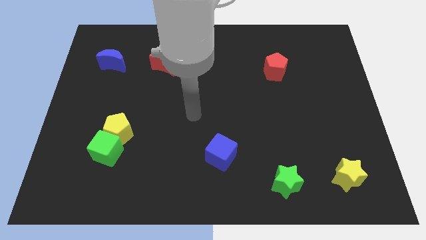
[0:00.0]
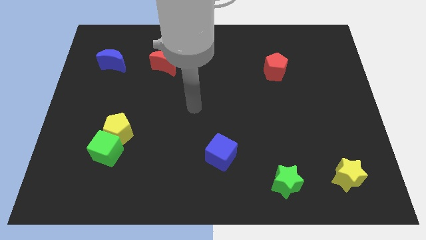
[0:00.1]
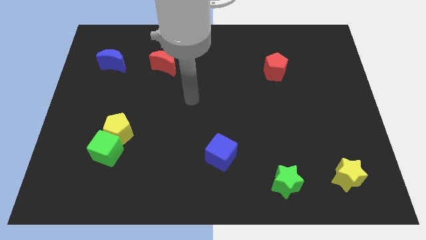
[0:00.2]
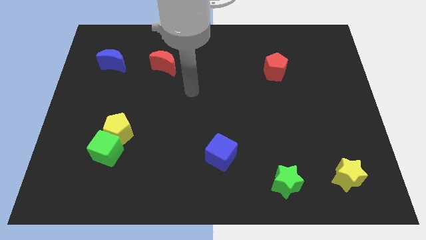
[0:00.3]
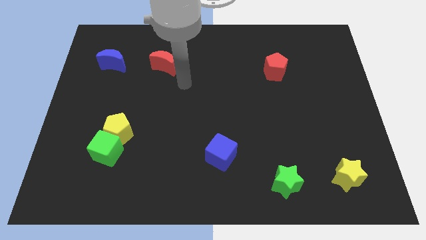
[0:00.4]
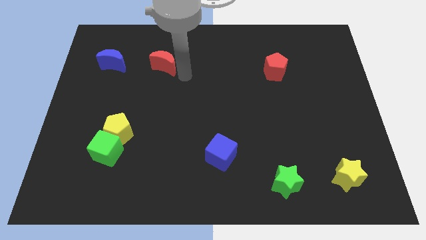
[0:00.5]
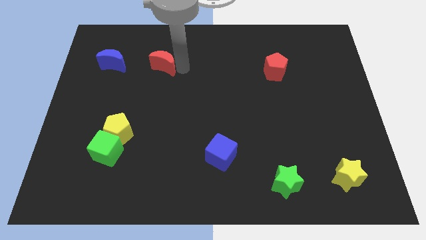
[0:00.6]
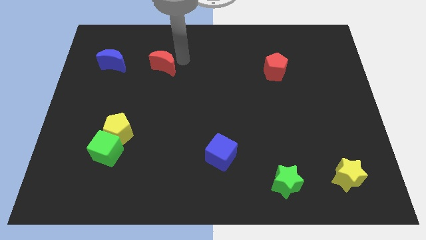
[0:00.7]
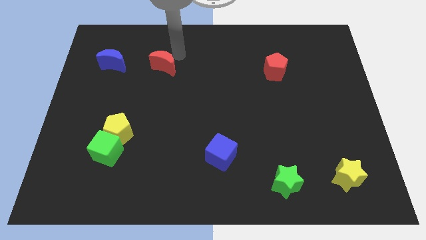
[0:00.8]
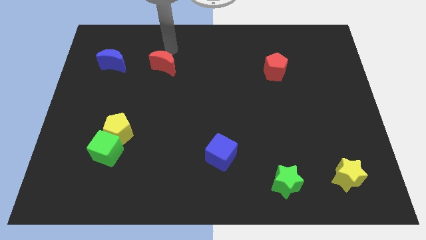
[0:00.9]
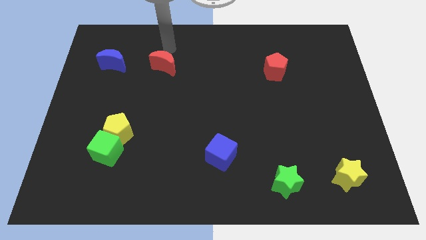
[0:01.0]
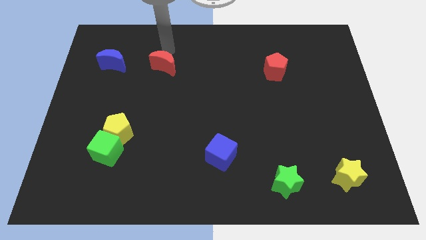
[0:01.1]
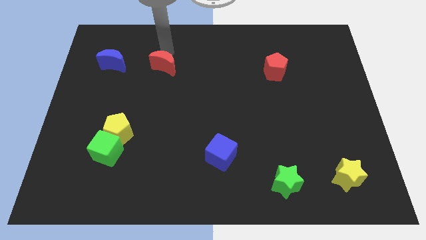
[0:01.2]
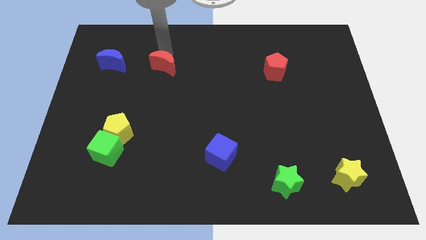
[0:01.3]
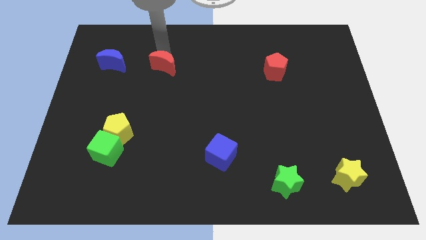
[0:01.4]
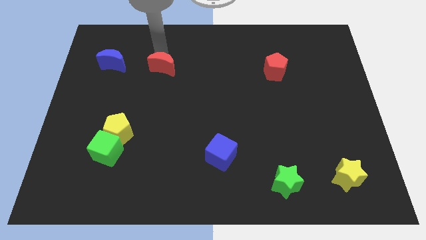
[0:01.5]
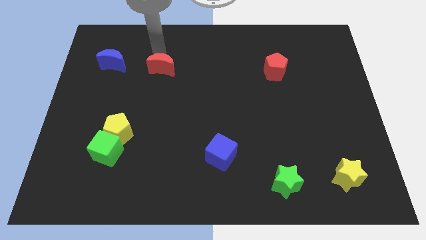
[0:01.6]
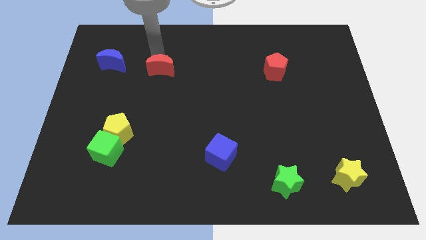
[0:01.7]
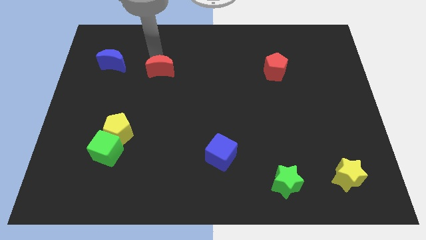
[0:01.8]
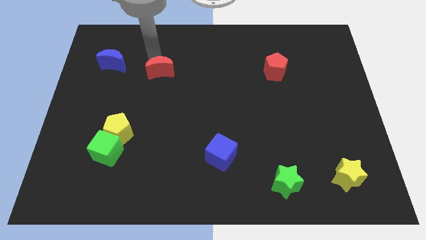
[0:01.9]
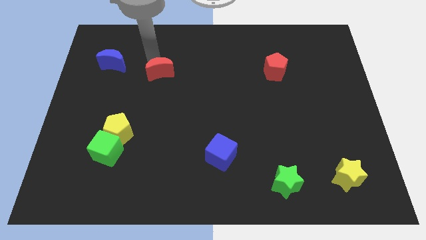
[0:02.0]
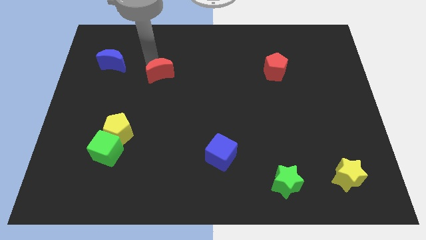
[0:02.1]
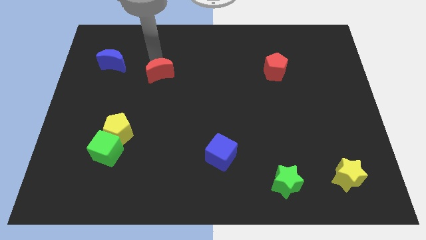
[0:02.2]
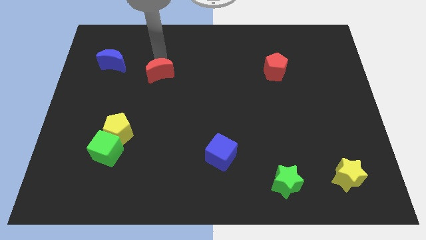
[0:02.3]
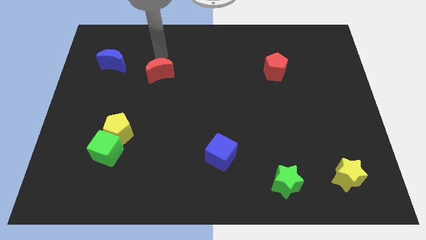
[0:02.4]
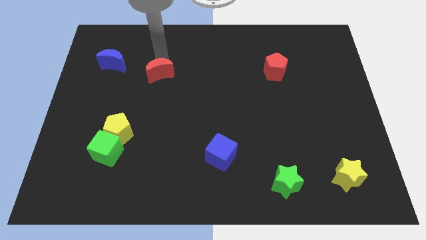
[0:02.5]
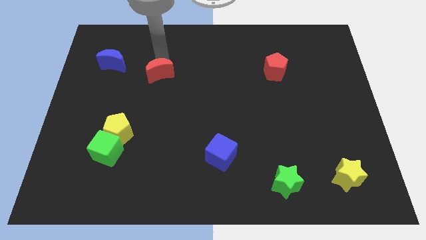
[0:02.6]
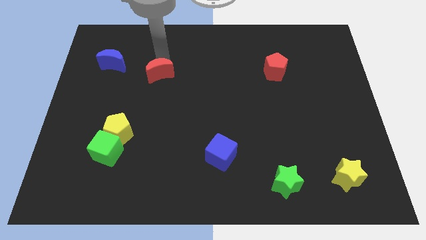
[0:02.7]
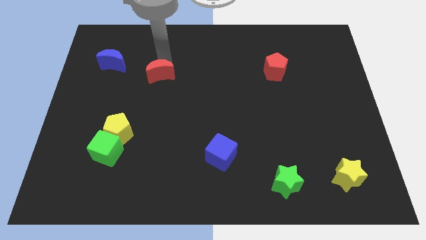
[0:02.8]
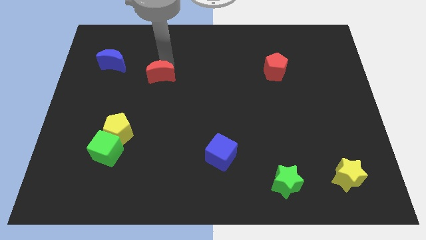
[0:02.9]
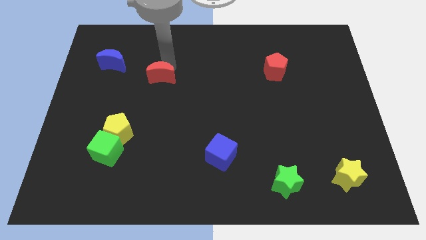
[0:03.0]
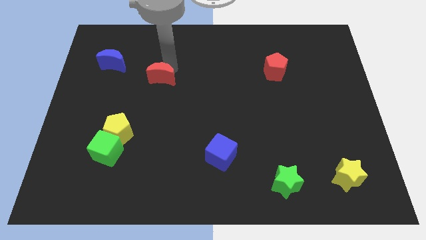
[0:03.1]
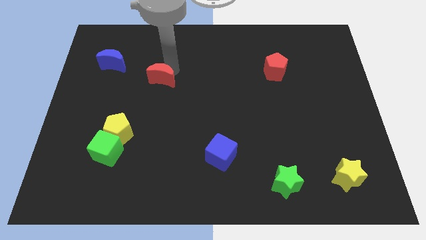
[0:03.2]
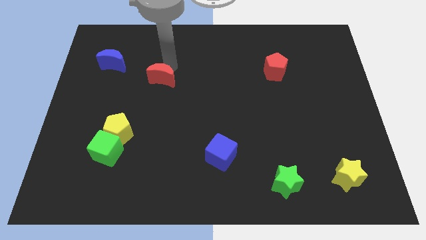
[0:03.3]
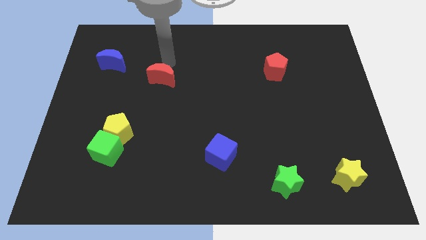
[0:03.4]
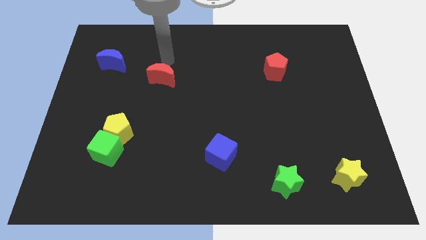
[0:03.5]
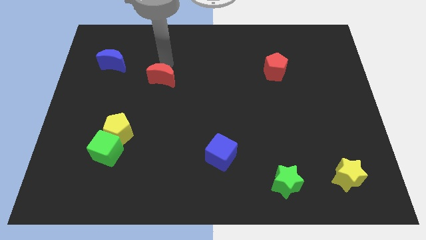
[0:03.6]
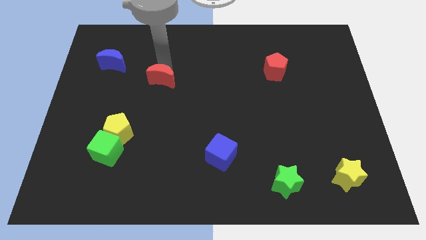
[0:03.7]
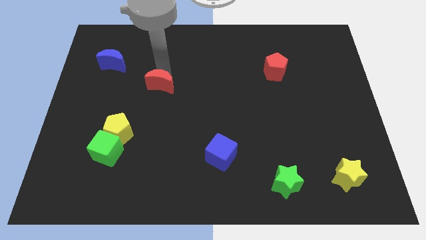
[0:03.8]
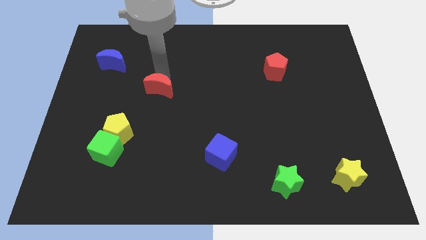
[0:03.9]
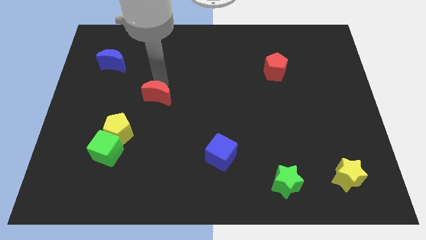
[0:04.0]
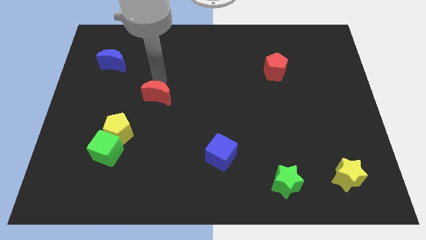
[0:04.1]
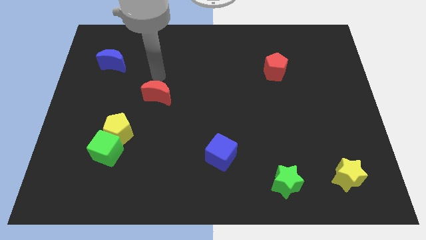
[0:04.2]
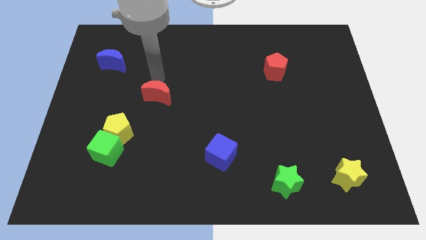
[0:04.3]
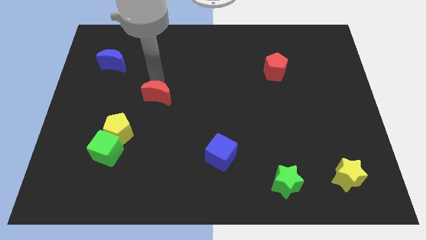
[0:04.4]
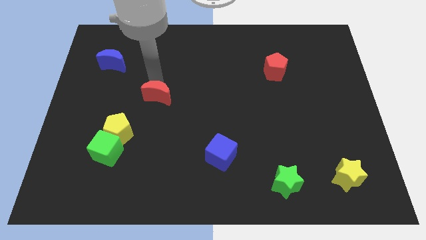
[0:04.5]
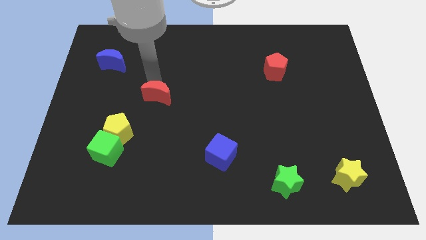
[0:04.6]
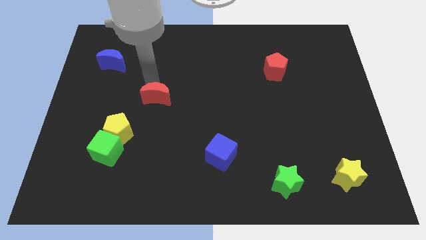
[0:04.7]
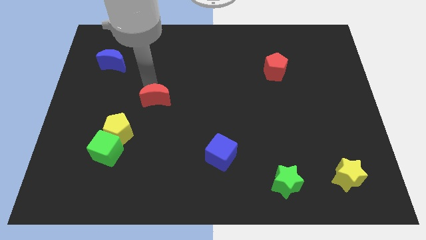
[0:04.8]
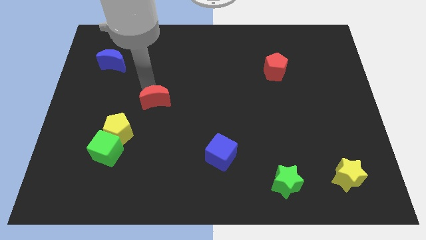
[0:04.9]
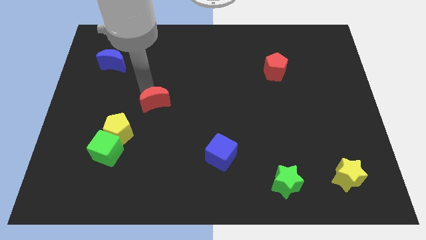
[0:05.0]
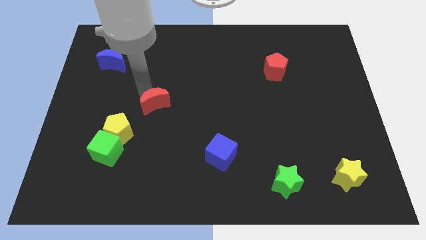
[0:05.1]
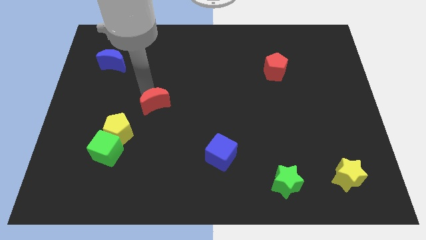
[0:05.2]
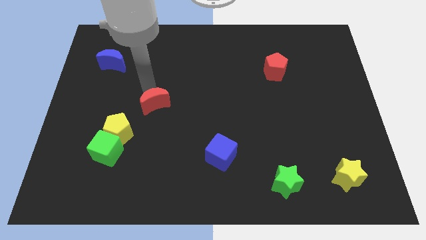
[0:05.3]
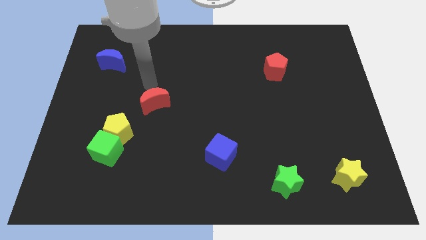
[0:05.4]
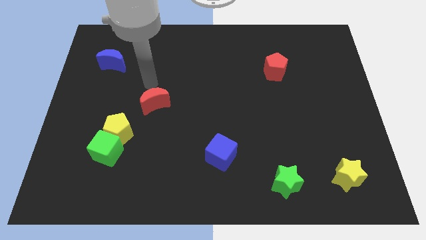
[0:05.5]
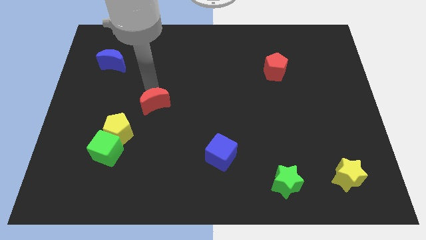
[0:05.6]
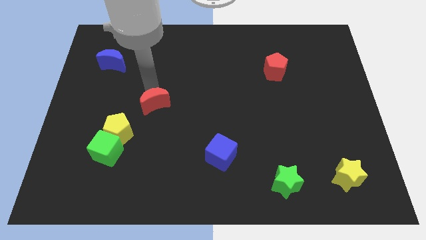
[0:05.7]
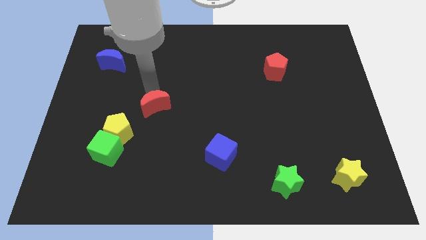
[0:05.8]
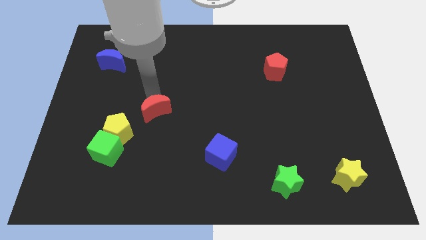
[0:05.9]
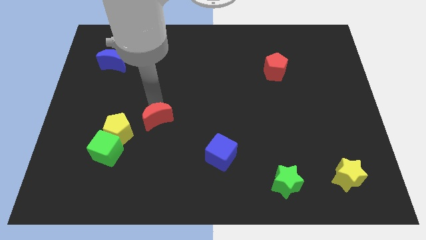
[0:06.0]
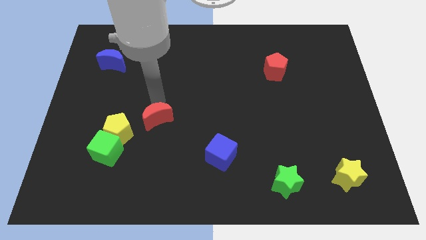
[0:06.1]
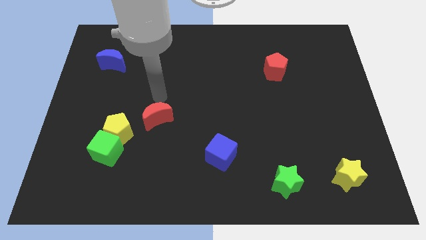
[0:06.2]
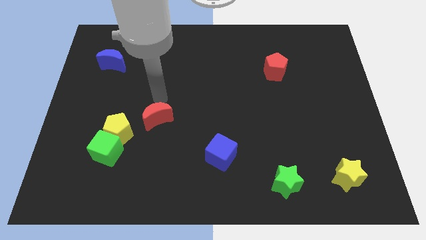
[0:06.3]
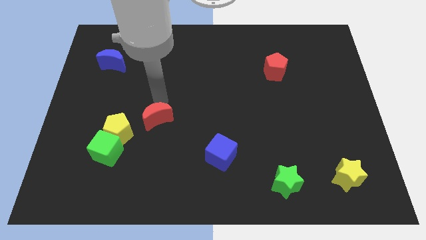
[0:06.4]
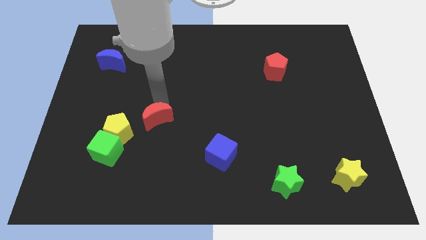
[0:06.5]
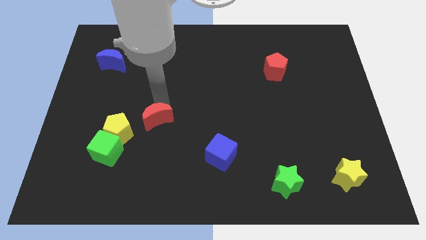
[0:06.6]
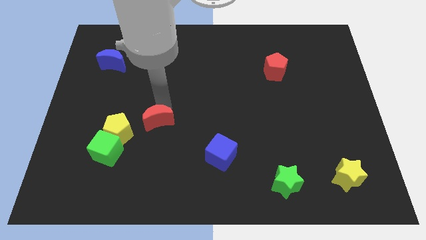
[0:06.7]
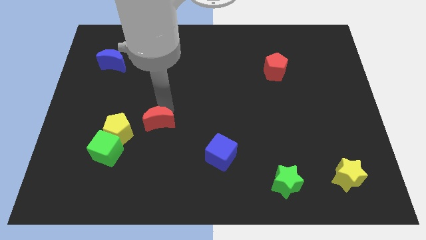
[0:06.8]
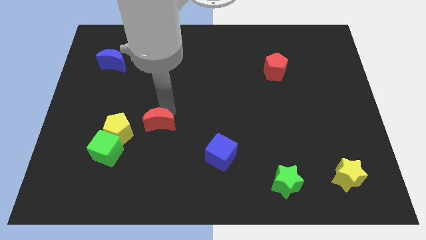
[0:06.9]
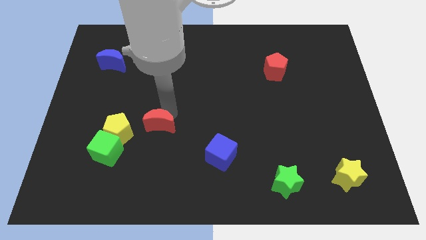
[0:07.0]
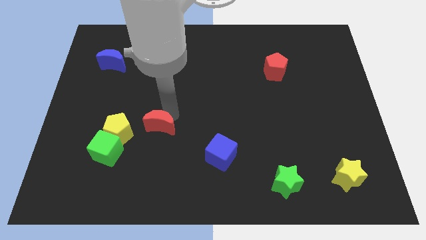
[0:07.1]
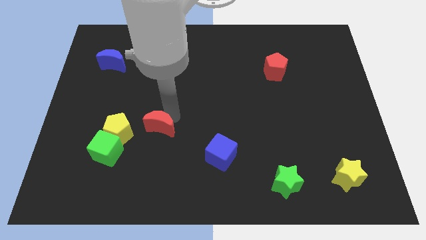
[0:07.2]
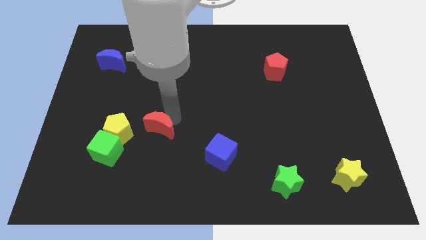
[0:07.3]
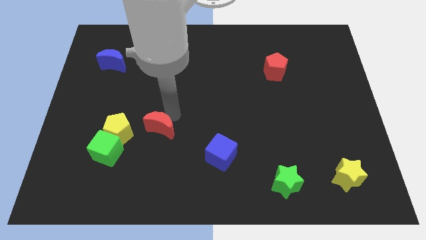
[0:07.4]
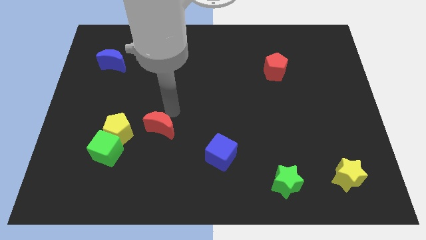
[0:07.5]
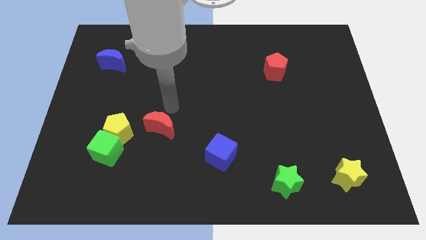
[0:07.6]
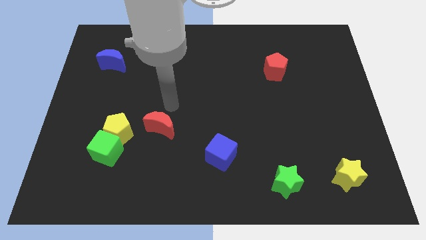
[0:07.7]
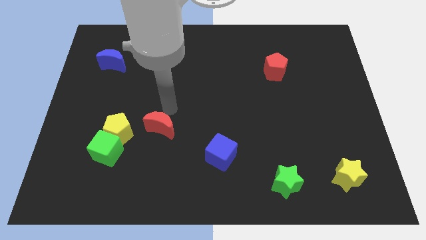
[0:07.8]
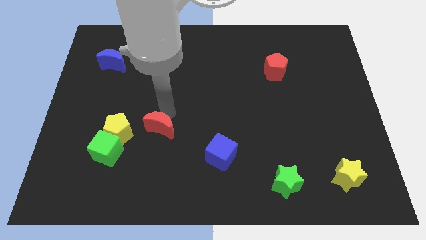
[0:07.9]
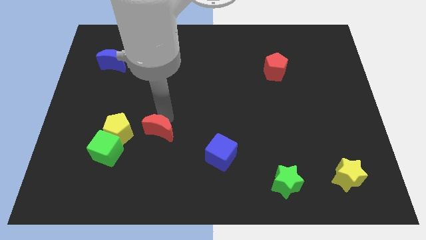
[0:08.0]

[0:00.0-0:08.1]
push the red moon downwards
